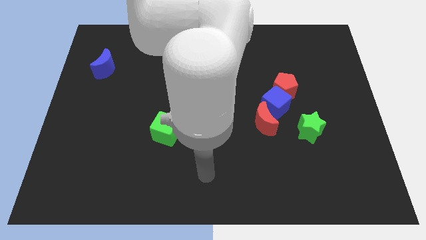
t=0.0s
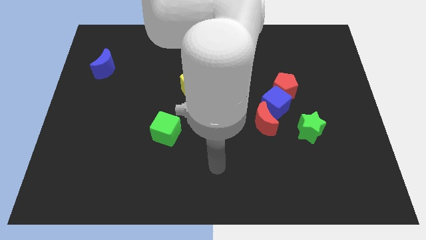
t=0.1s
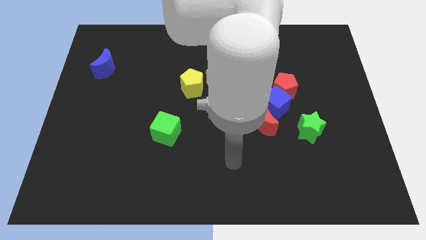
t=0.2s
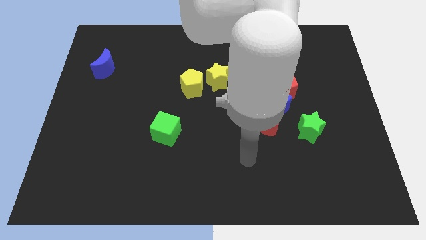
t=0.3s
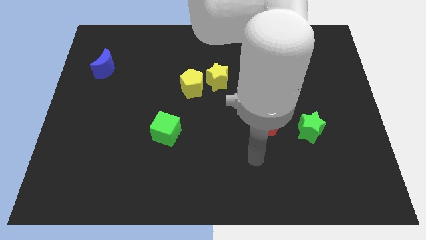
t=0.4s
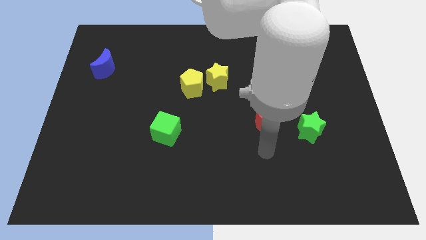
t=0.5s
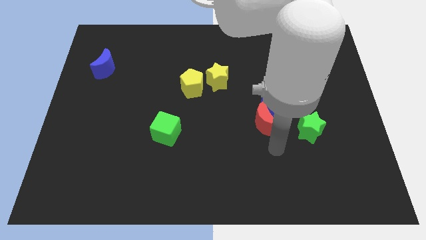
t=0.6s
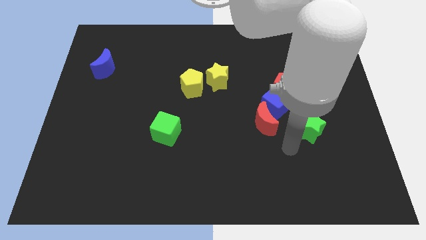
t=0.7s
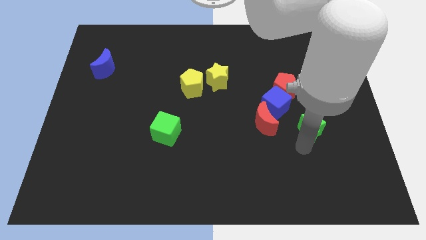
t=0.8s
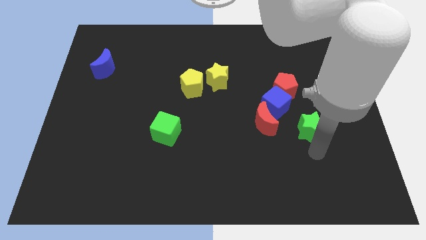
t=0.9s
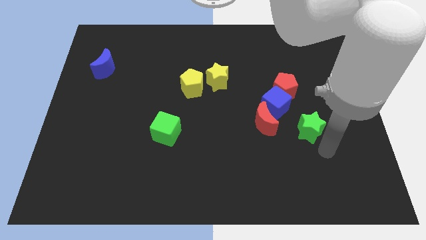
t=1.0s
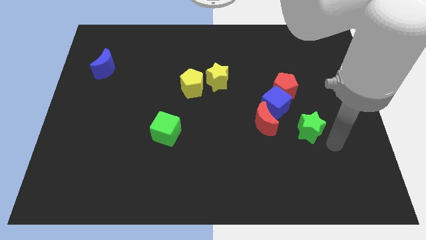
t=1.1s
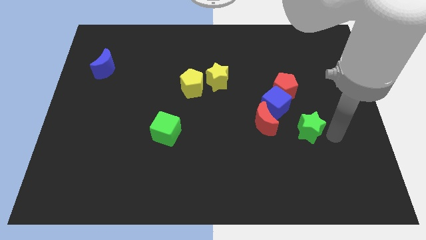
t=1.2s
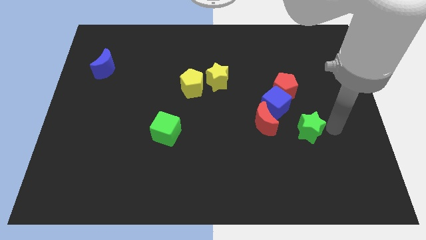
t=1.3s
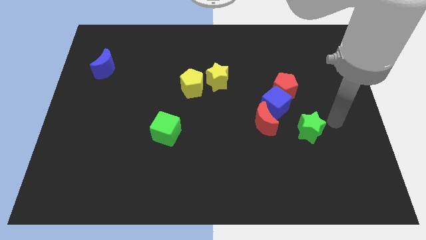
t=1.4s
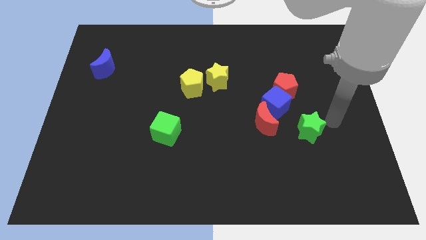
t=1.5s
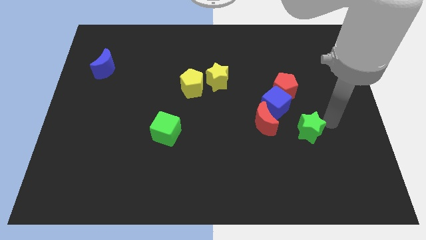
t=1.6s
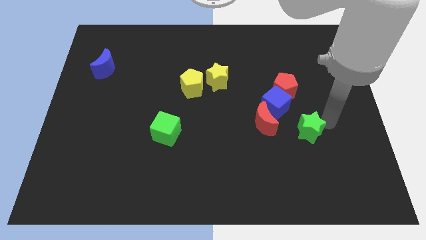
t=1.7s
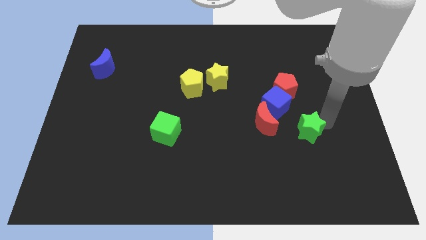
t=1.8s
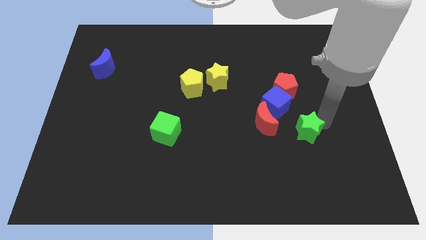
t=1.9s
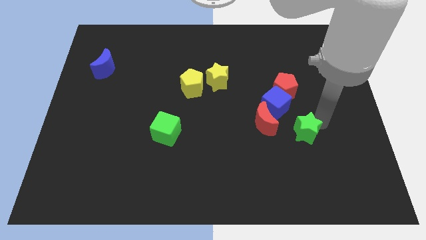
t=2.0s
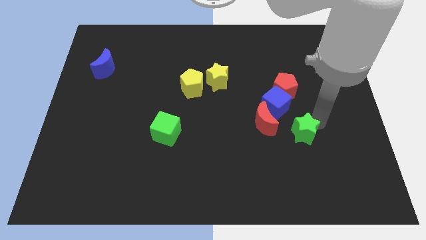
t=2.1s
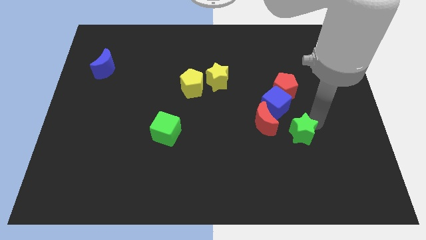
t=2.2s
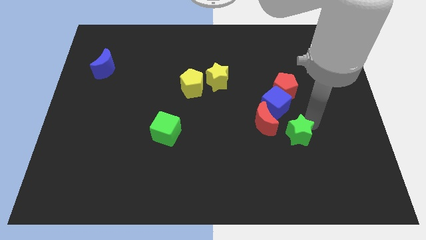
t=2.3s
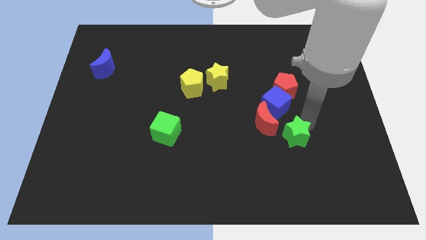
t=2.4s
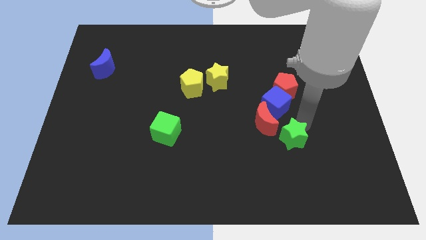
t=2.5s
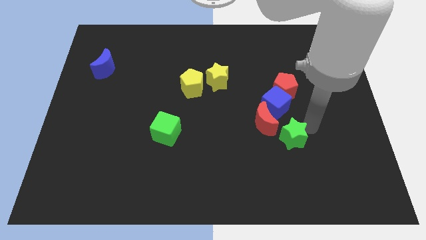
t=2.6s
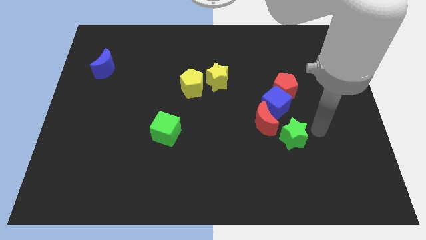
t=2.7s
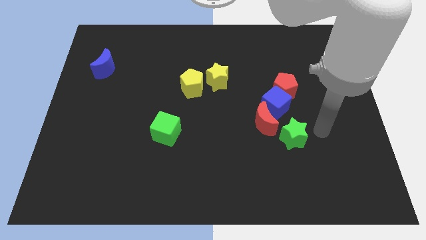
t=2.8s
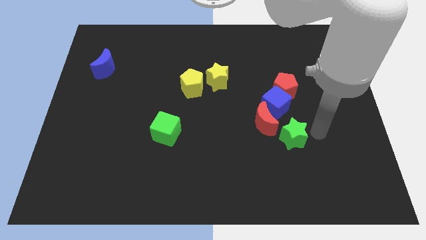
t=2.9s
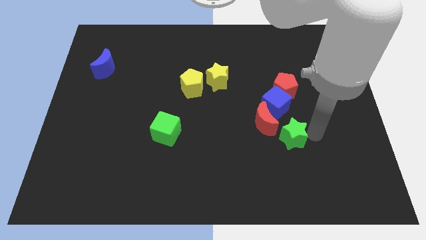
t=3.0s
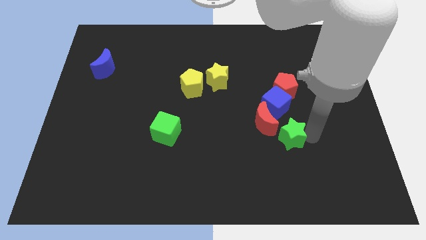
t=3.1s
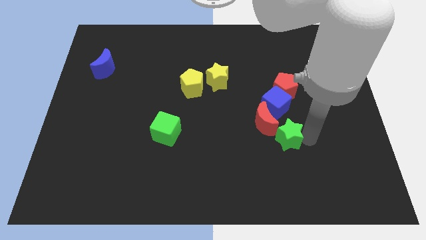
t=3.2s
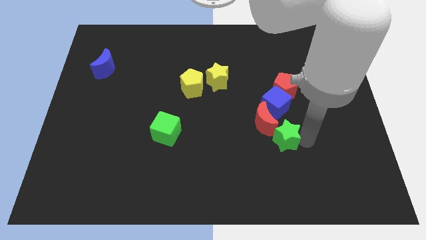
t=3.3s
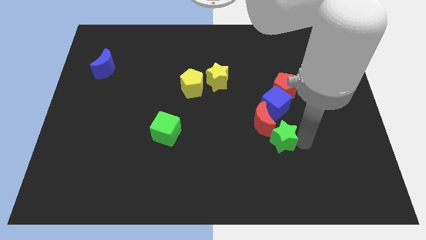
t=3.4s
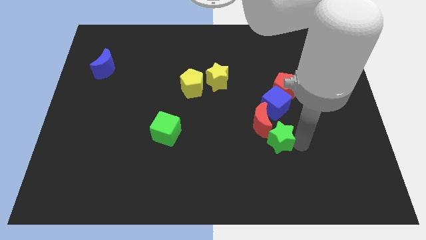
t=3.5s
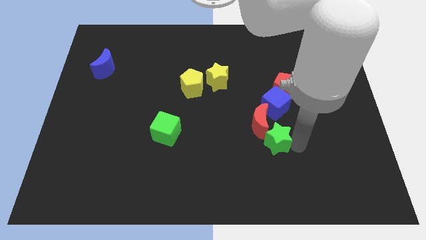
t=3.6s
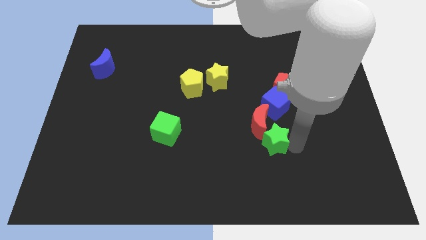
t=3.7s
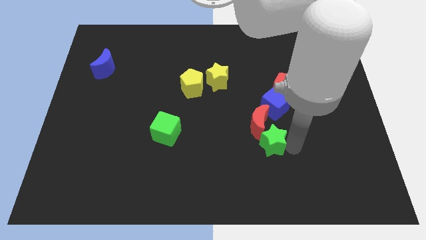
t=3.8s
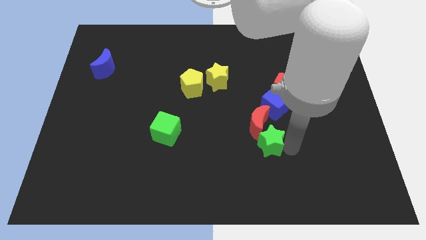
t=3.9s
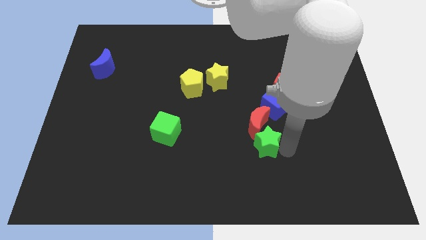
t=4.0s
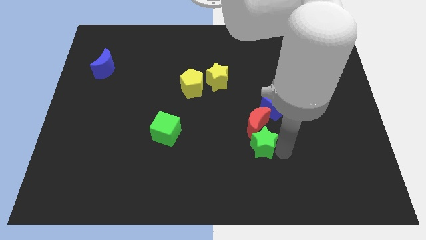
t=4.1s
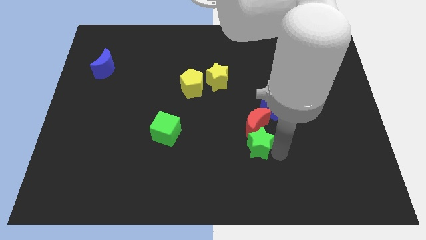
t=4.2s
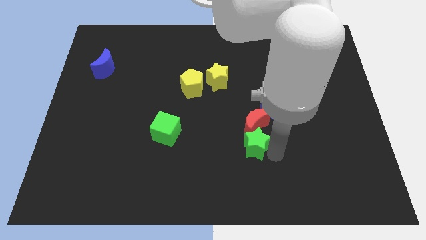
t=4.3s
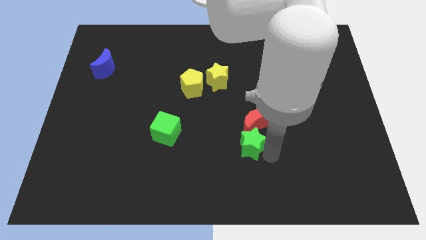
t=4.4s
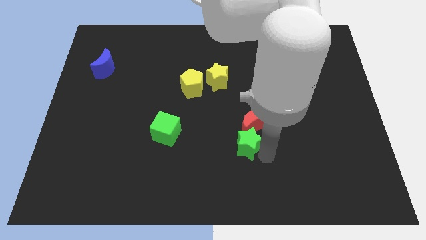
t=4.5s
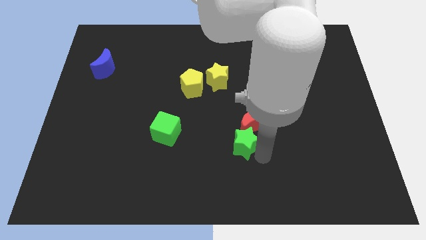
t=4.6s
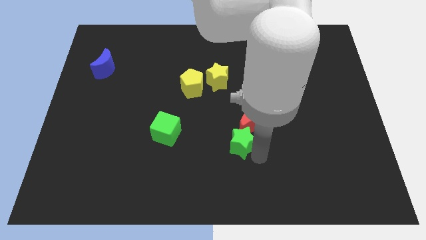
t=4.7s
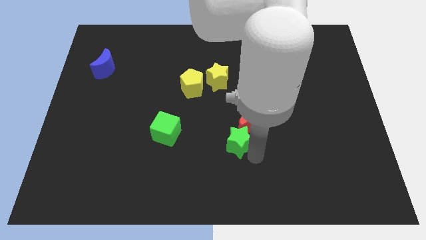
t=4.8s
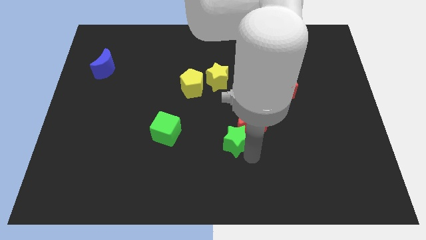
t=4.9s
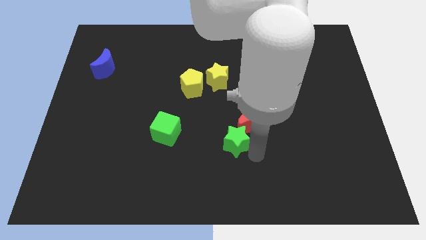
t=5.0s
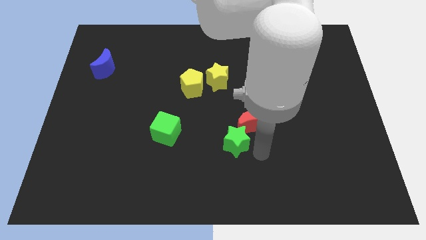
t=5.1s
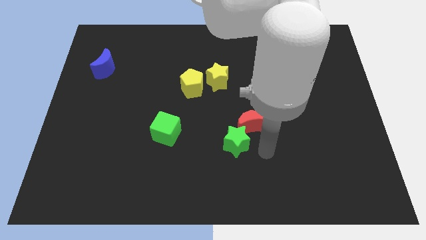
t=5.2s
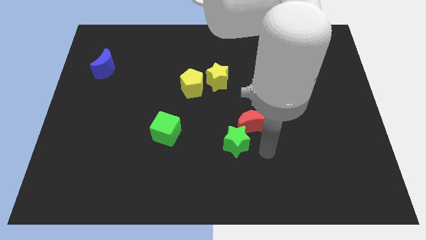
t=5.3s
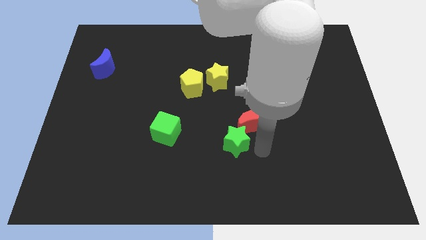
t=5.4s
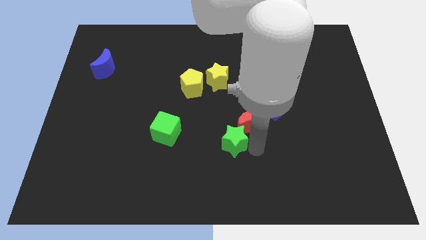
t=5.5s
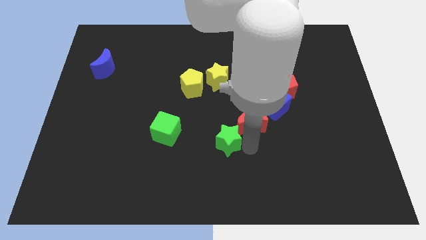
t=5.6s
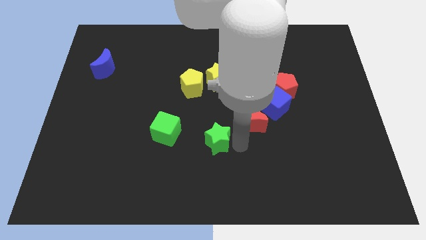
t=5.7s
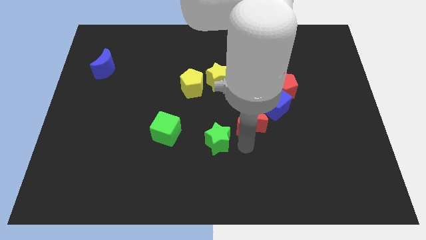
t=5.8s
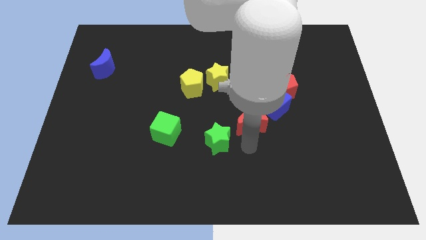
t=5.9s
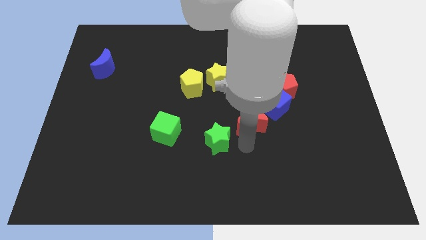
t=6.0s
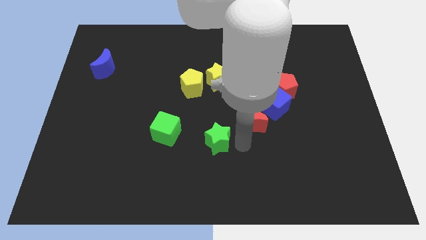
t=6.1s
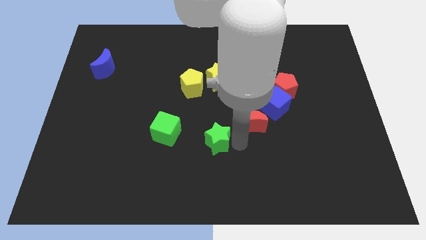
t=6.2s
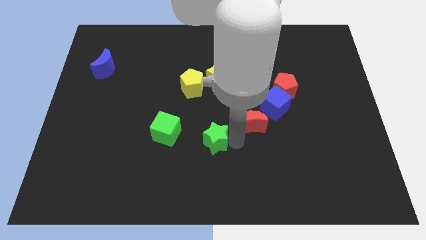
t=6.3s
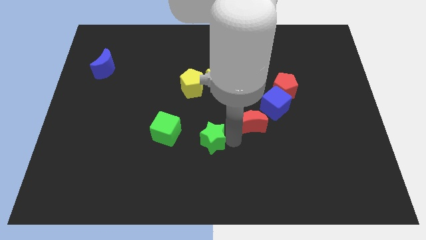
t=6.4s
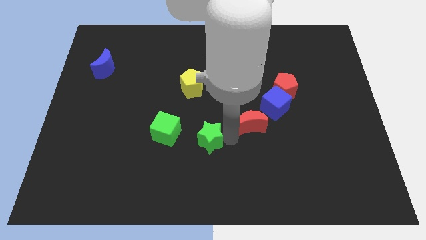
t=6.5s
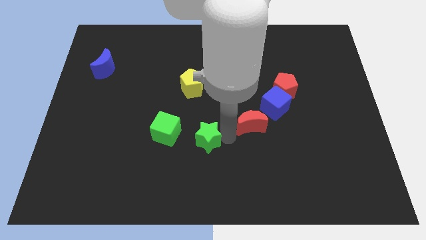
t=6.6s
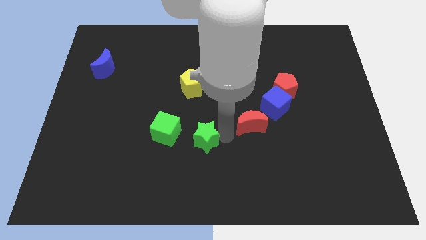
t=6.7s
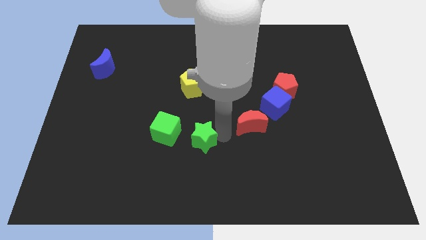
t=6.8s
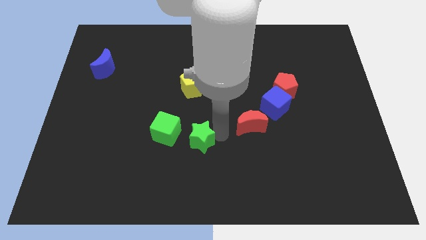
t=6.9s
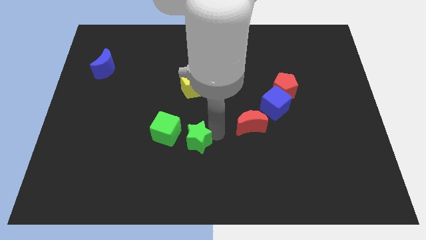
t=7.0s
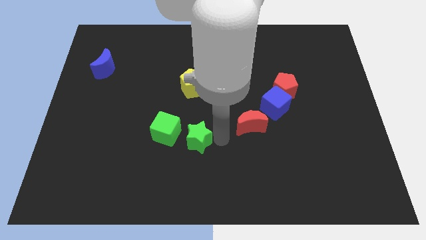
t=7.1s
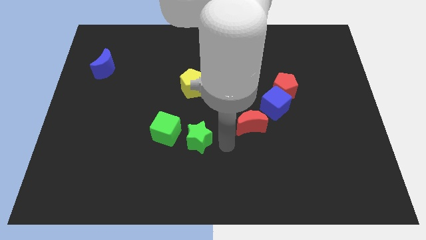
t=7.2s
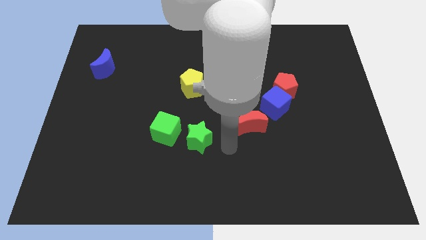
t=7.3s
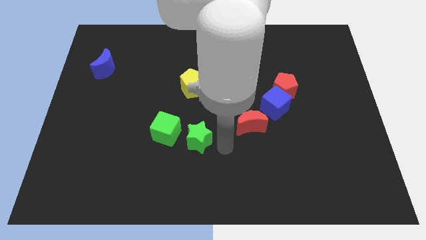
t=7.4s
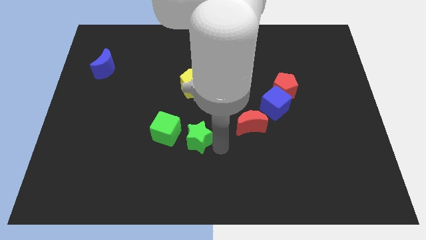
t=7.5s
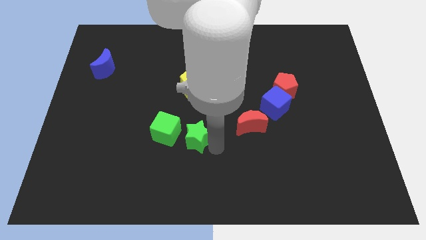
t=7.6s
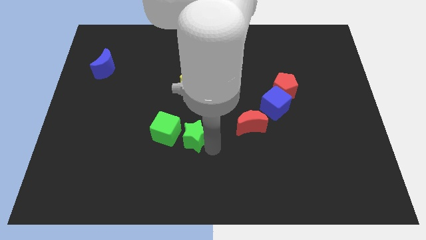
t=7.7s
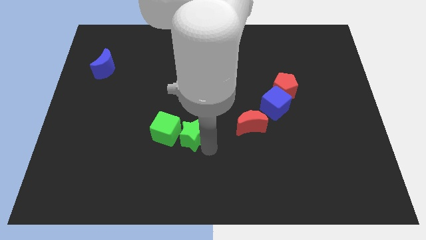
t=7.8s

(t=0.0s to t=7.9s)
move the green star next to the green cube
